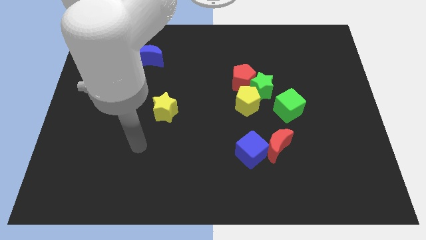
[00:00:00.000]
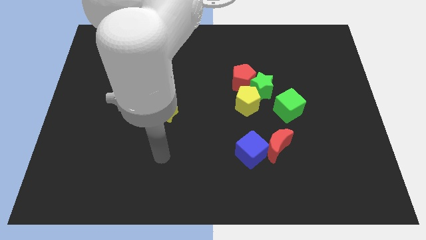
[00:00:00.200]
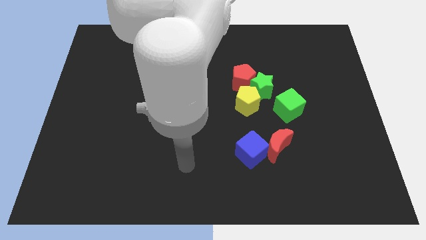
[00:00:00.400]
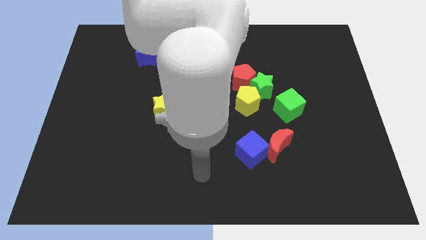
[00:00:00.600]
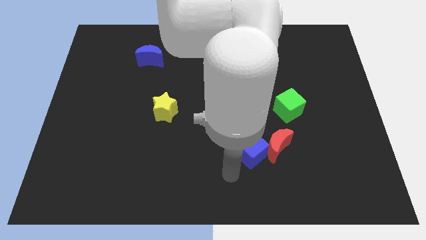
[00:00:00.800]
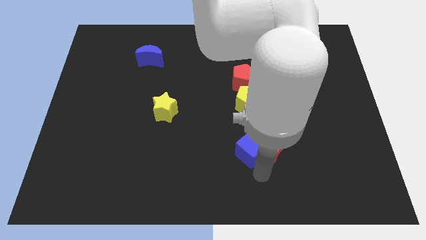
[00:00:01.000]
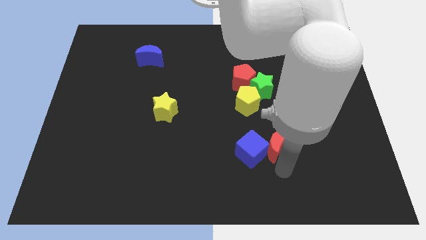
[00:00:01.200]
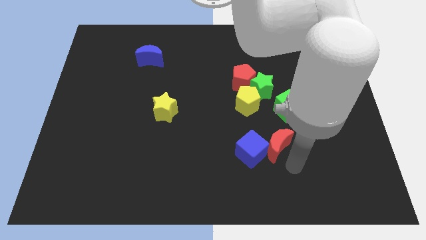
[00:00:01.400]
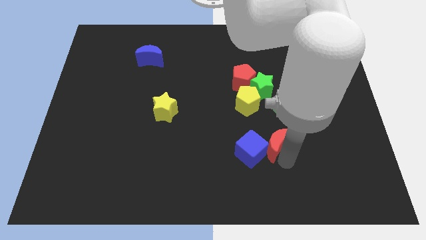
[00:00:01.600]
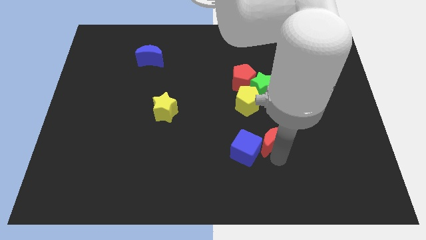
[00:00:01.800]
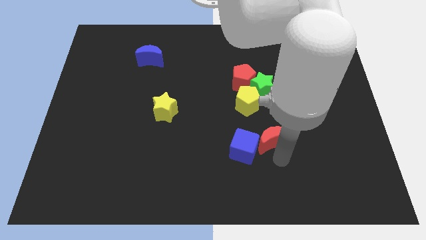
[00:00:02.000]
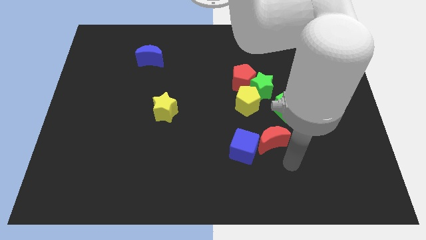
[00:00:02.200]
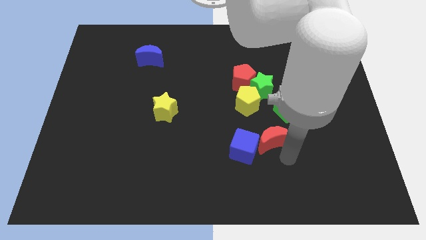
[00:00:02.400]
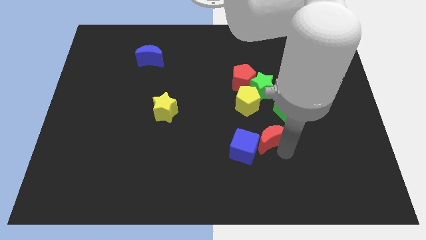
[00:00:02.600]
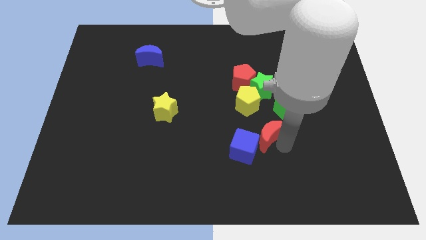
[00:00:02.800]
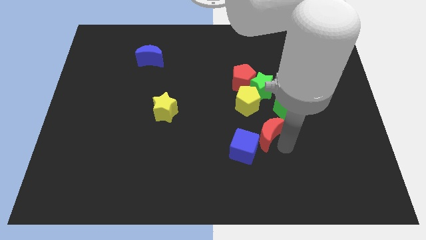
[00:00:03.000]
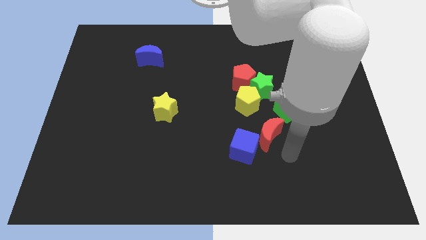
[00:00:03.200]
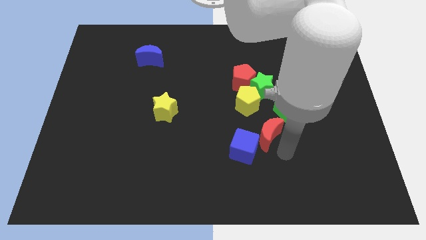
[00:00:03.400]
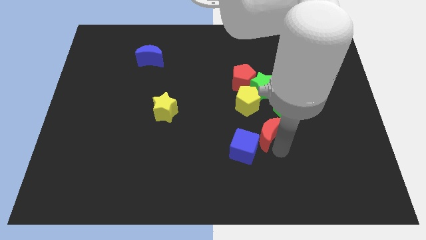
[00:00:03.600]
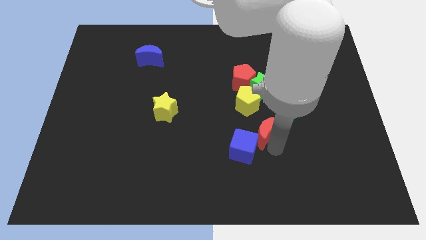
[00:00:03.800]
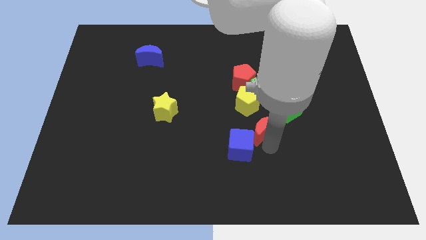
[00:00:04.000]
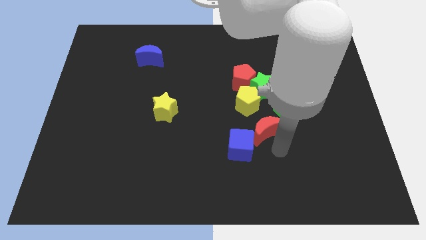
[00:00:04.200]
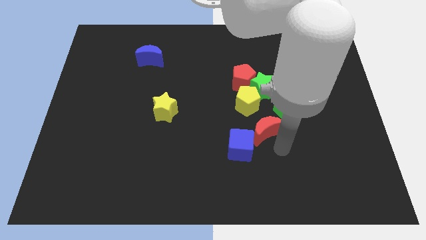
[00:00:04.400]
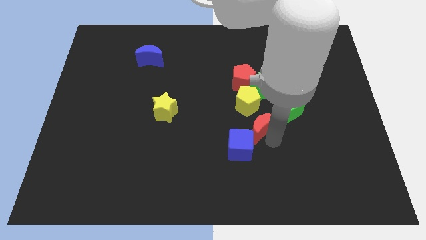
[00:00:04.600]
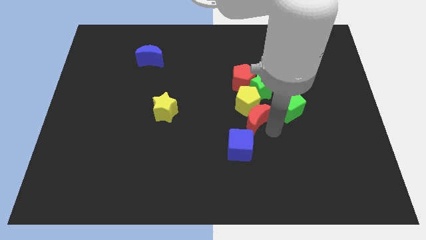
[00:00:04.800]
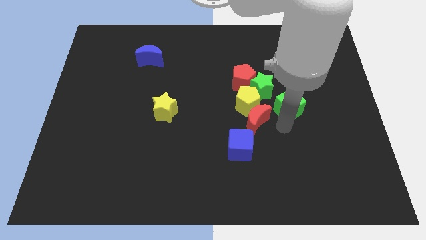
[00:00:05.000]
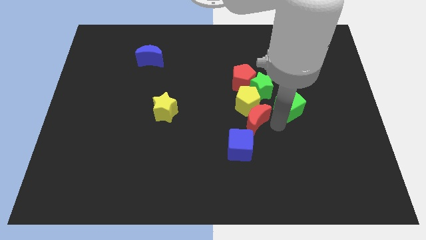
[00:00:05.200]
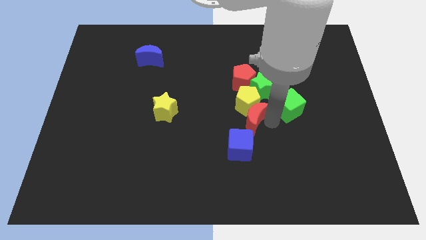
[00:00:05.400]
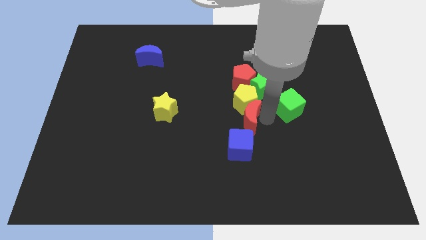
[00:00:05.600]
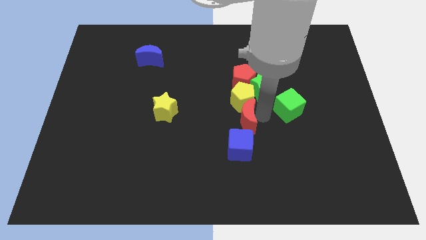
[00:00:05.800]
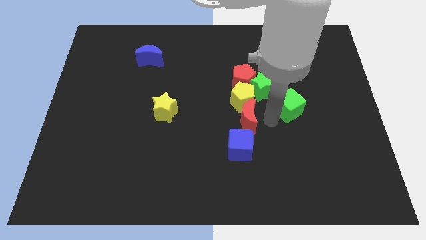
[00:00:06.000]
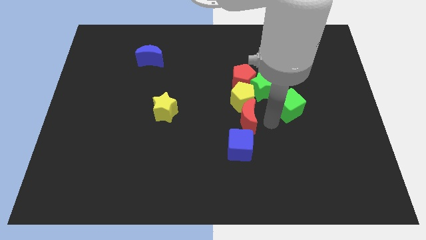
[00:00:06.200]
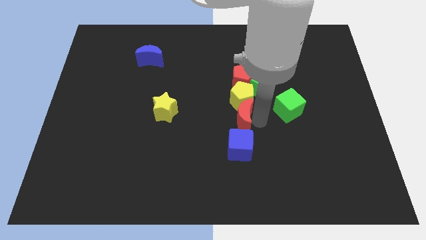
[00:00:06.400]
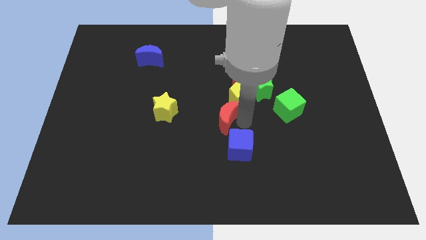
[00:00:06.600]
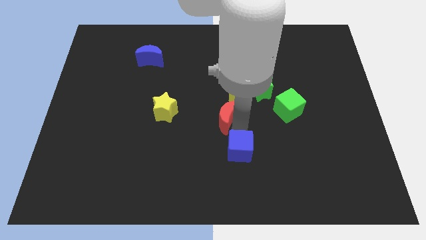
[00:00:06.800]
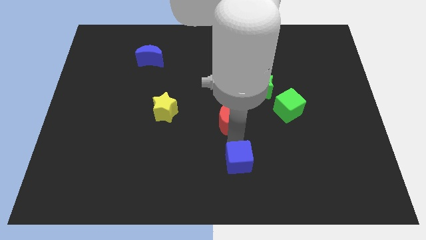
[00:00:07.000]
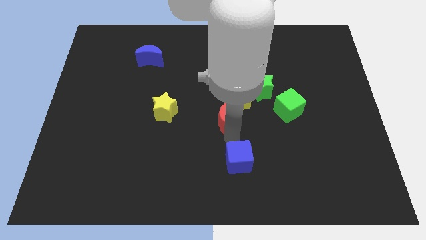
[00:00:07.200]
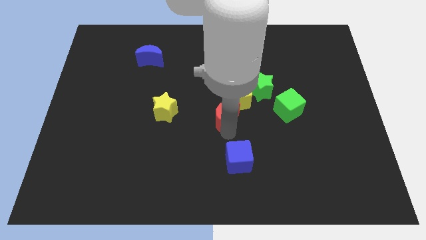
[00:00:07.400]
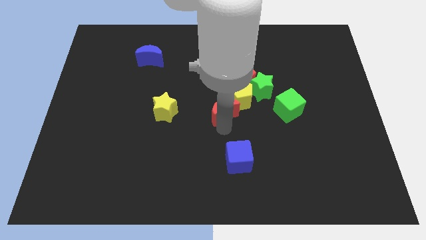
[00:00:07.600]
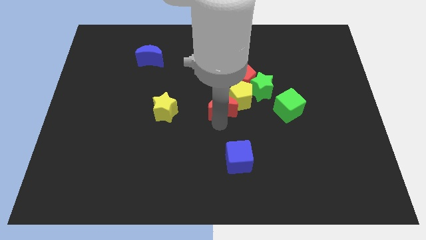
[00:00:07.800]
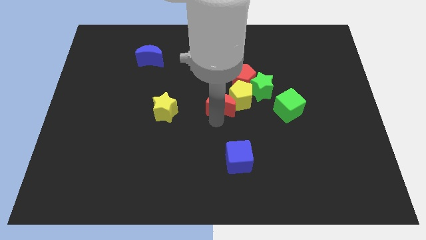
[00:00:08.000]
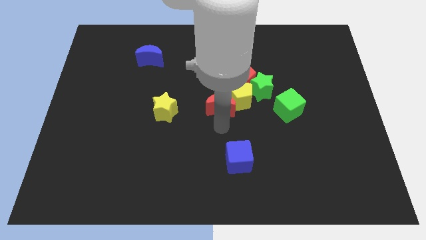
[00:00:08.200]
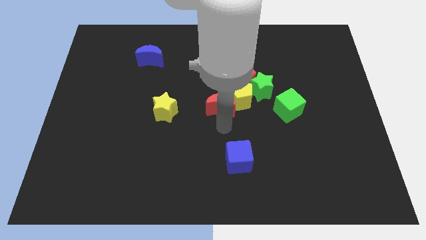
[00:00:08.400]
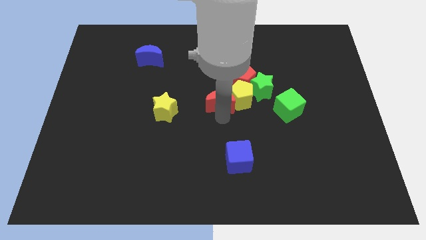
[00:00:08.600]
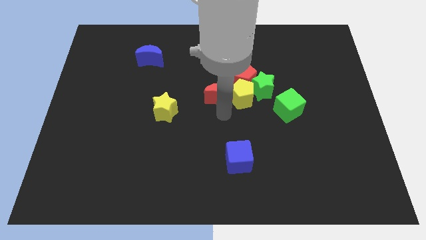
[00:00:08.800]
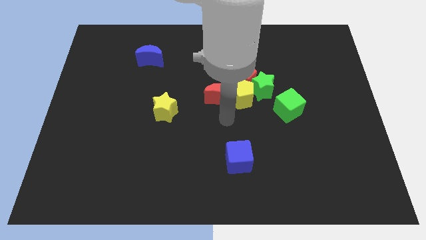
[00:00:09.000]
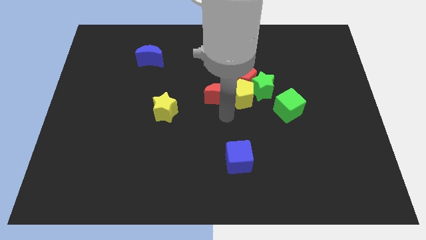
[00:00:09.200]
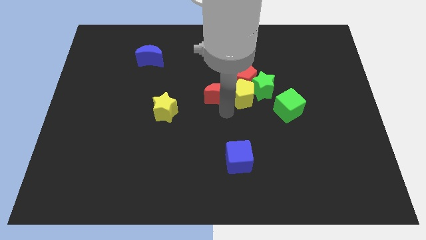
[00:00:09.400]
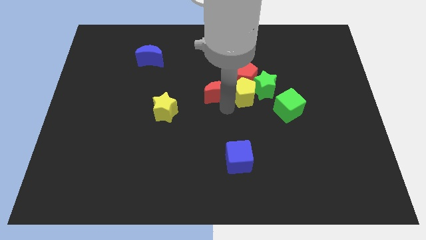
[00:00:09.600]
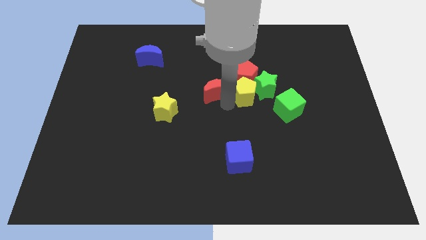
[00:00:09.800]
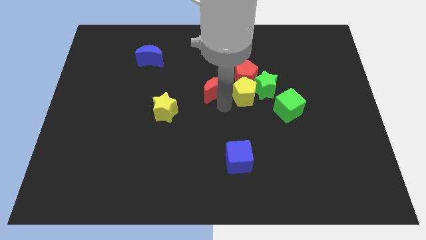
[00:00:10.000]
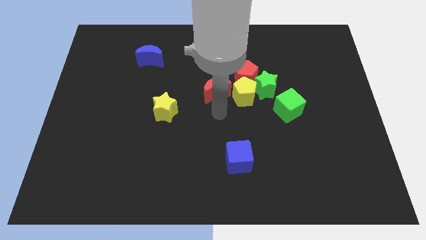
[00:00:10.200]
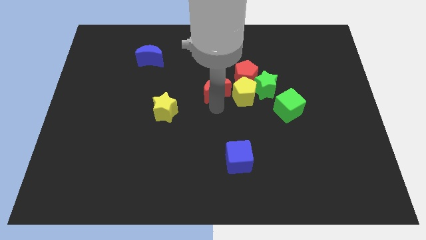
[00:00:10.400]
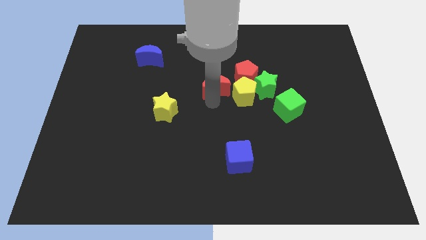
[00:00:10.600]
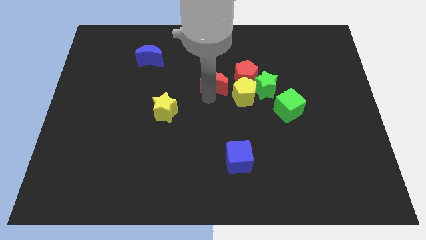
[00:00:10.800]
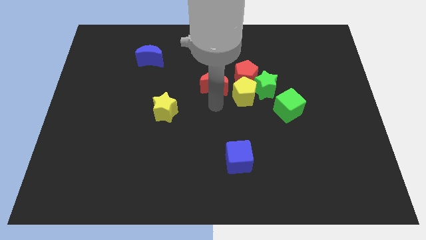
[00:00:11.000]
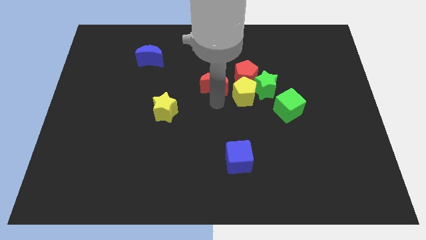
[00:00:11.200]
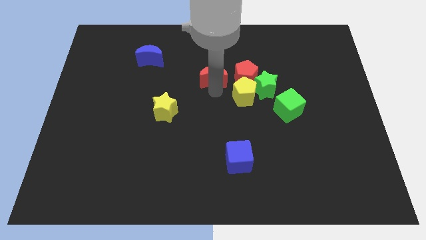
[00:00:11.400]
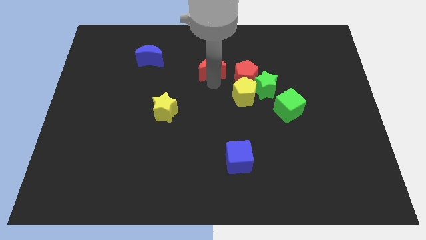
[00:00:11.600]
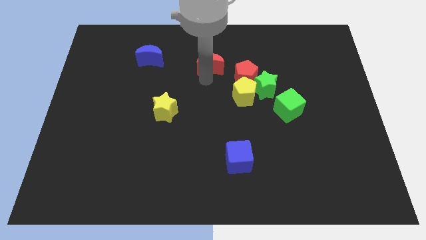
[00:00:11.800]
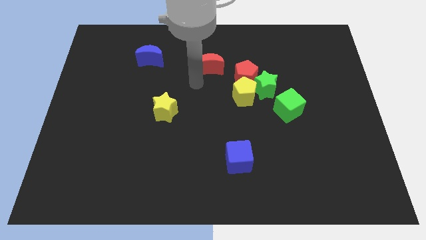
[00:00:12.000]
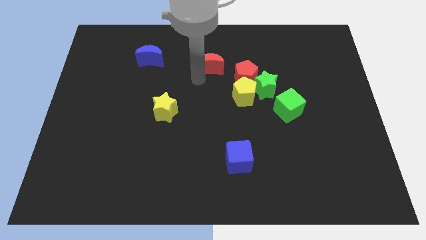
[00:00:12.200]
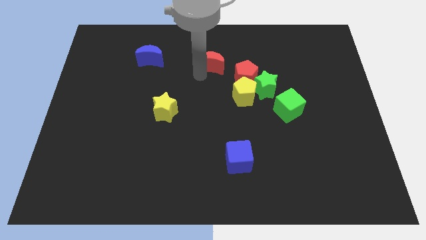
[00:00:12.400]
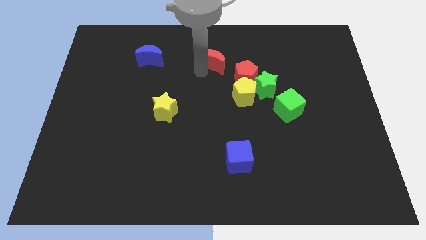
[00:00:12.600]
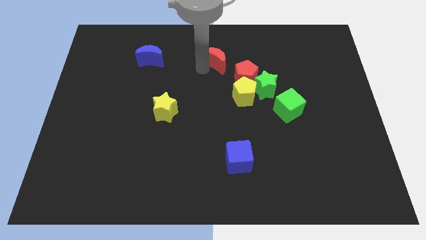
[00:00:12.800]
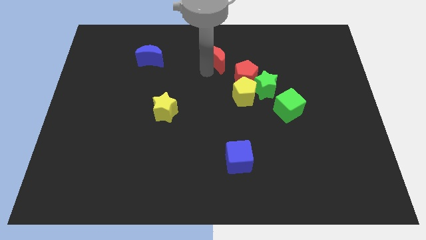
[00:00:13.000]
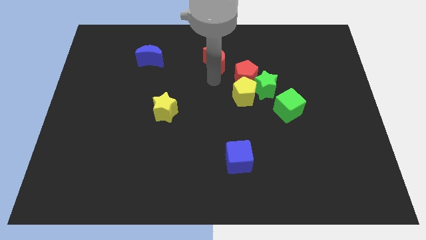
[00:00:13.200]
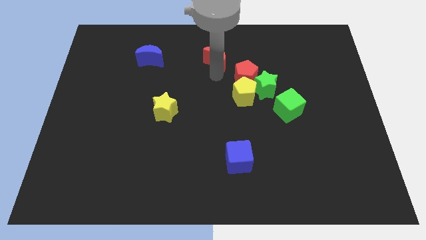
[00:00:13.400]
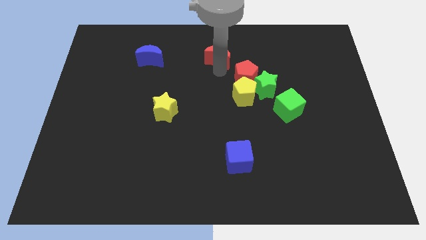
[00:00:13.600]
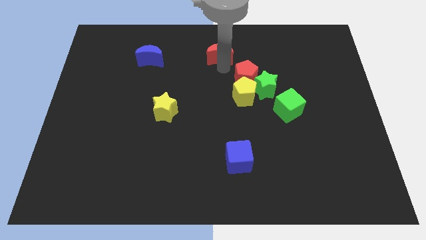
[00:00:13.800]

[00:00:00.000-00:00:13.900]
put the red moon to the top
